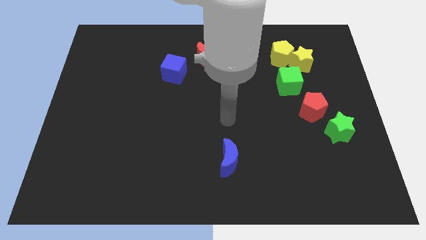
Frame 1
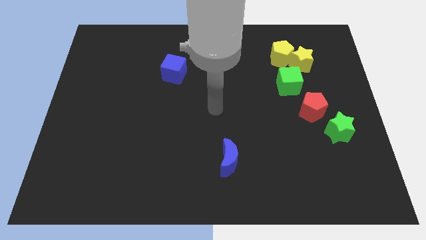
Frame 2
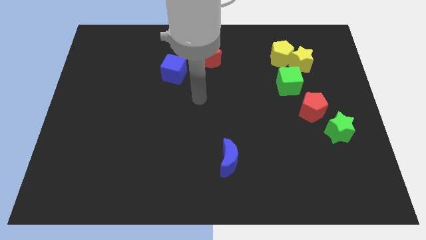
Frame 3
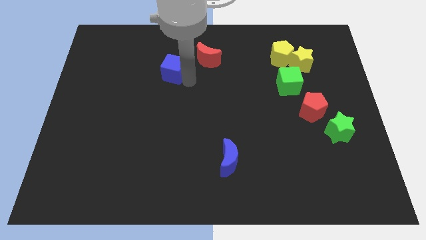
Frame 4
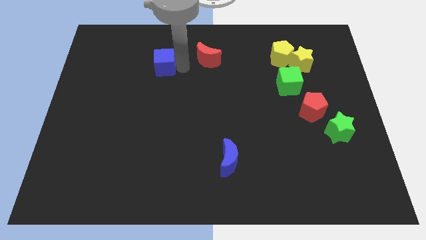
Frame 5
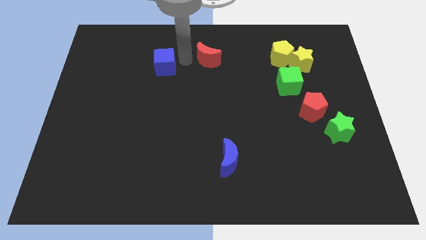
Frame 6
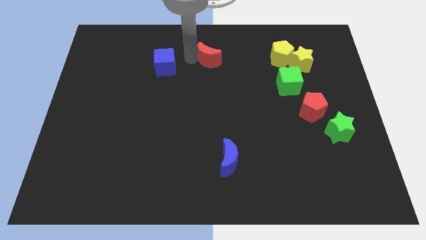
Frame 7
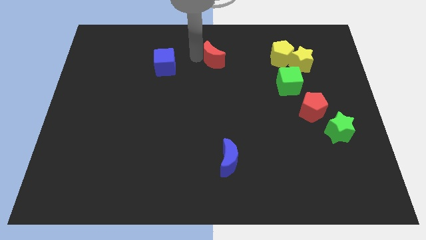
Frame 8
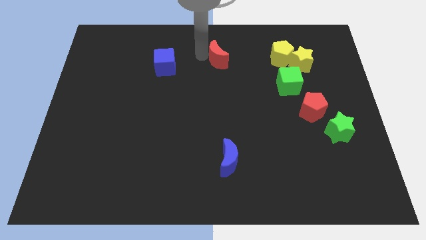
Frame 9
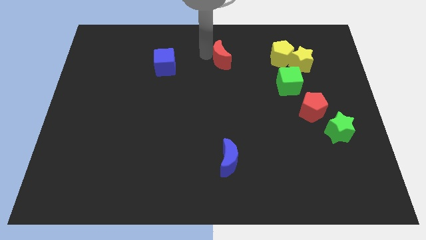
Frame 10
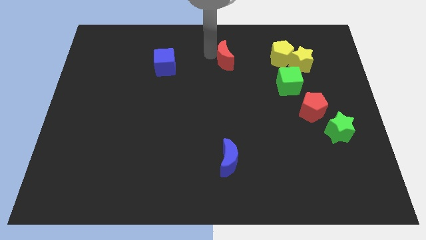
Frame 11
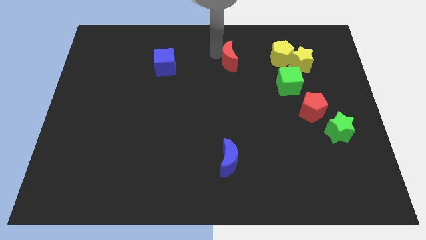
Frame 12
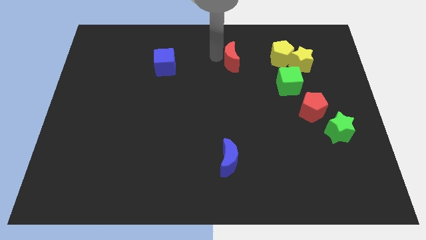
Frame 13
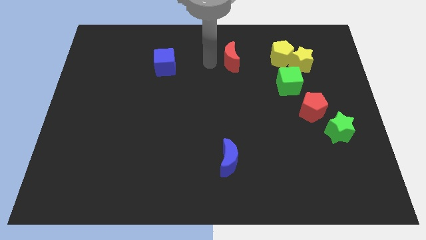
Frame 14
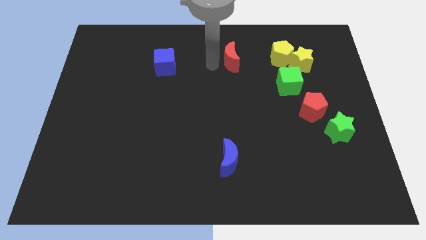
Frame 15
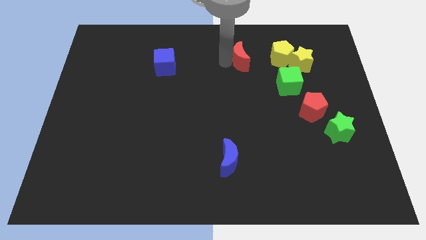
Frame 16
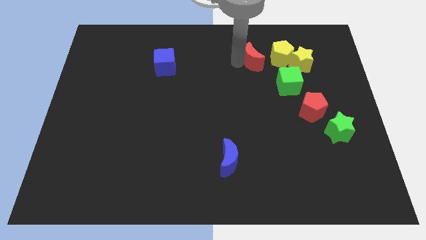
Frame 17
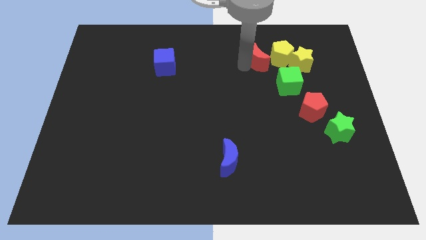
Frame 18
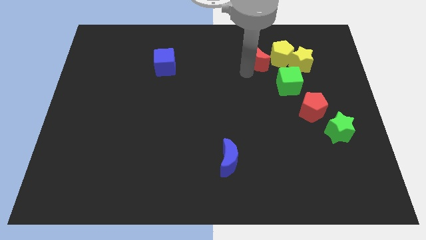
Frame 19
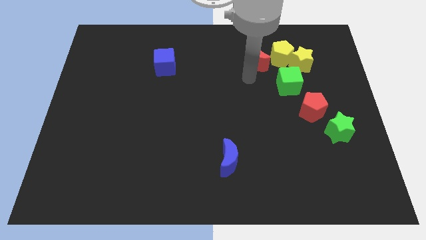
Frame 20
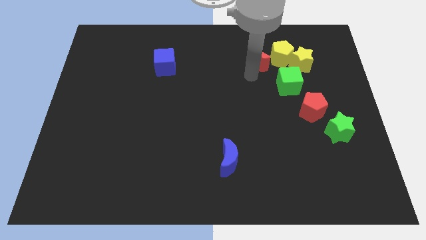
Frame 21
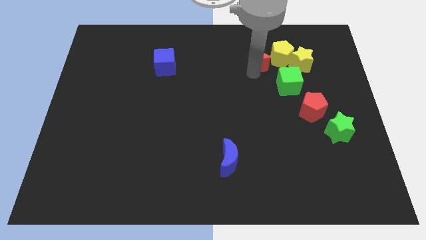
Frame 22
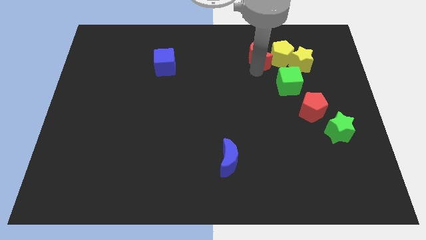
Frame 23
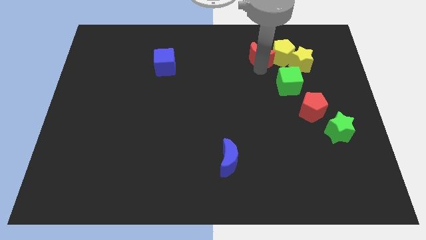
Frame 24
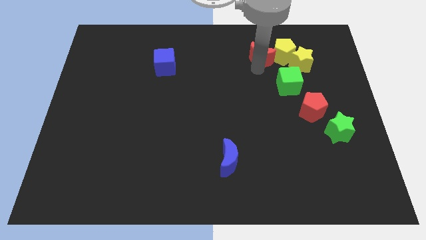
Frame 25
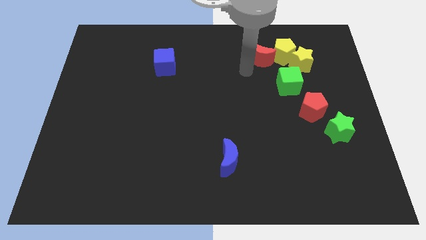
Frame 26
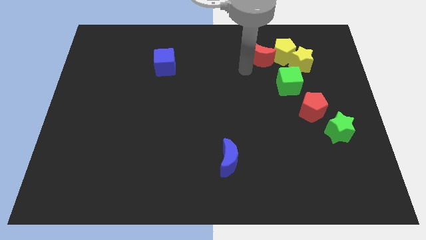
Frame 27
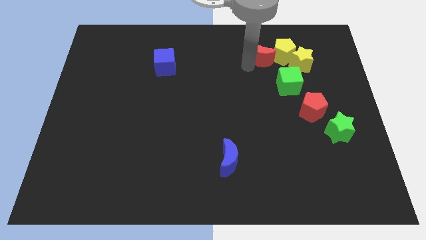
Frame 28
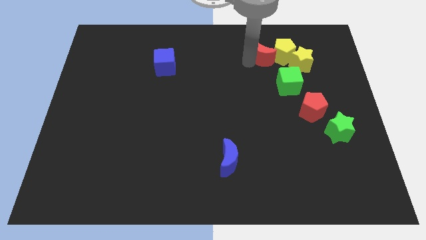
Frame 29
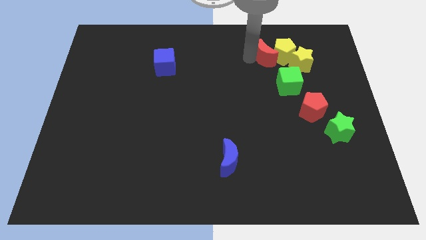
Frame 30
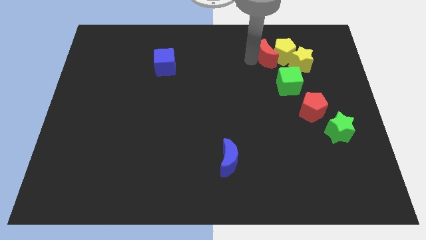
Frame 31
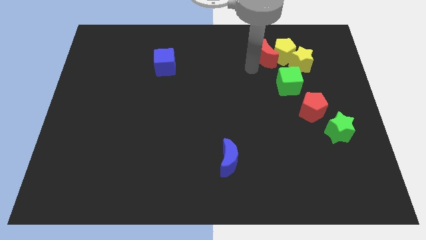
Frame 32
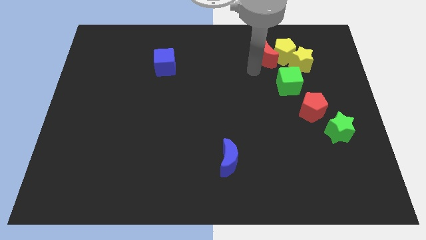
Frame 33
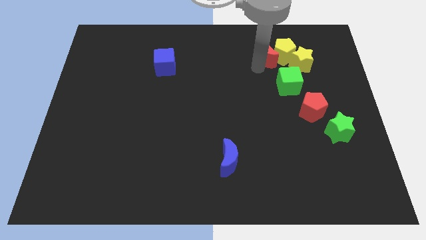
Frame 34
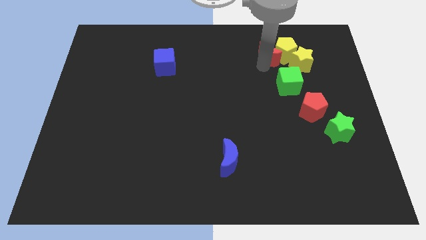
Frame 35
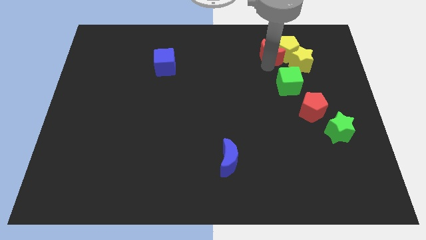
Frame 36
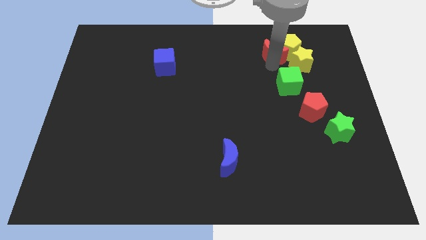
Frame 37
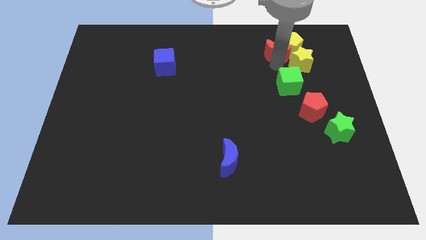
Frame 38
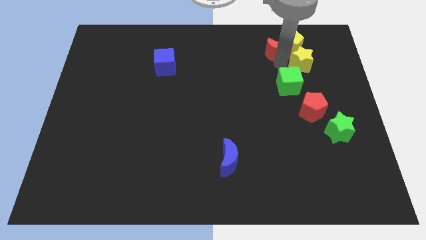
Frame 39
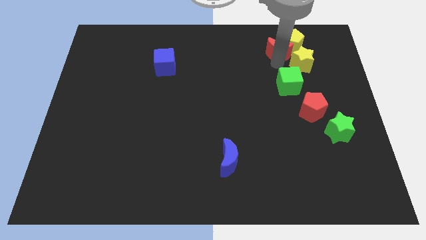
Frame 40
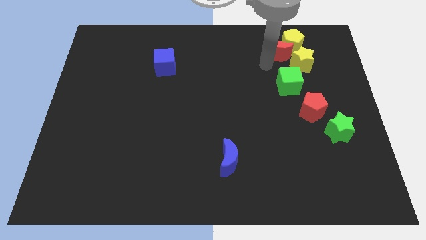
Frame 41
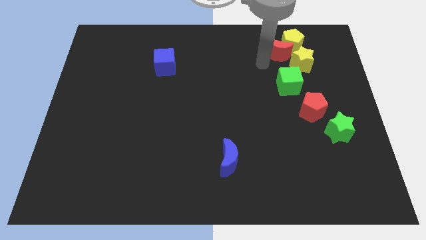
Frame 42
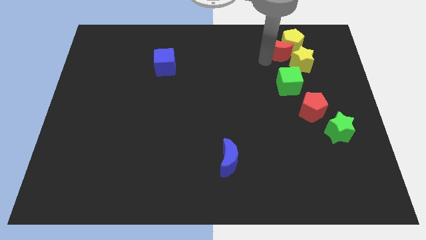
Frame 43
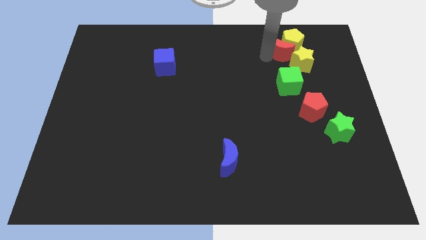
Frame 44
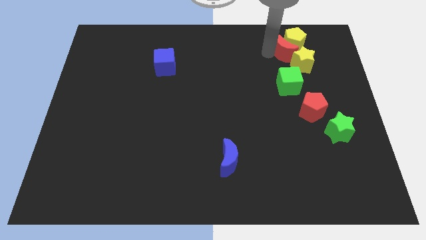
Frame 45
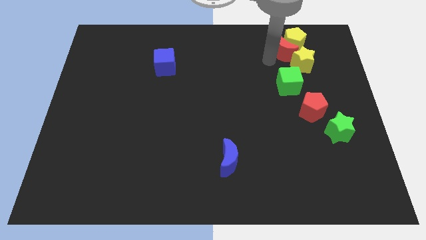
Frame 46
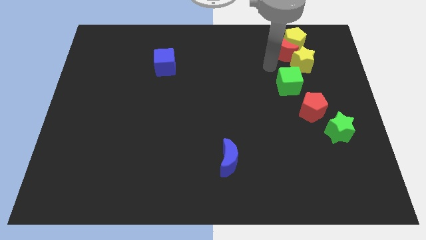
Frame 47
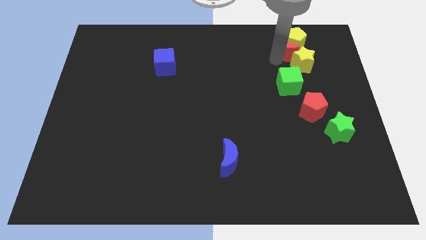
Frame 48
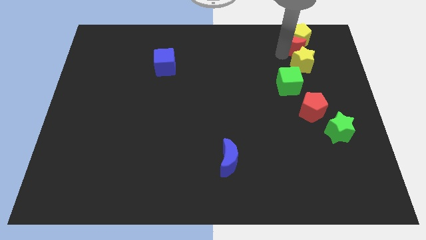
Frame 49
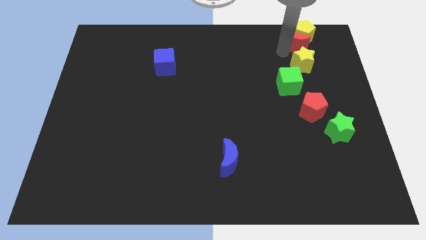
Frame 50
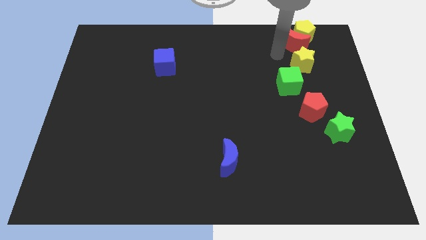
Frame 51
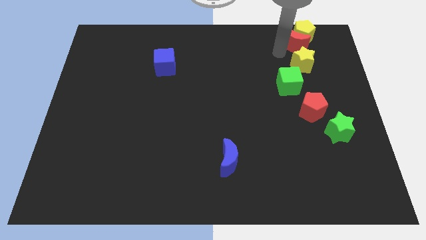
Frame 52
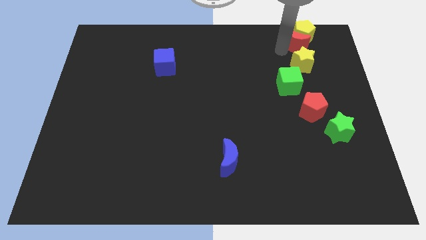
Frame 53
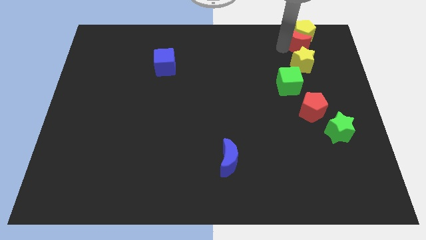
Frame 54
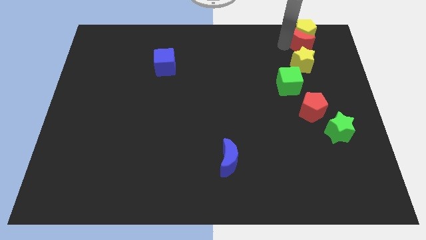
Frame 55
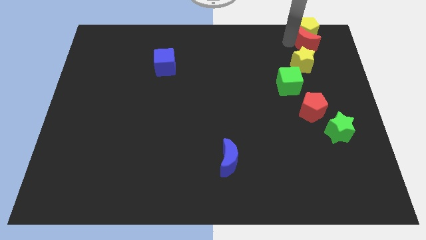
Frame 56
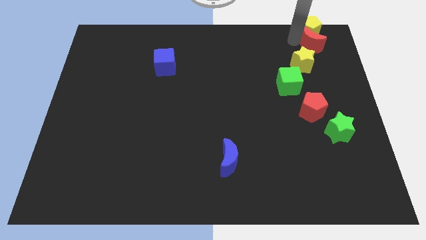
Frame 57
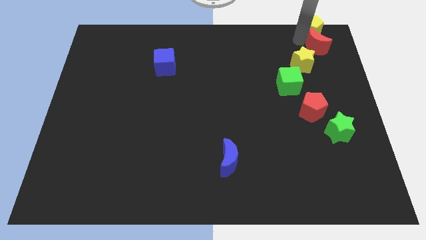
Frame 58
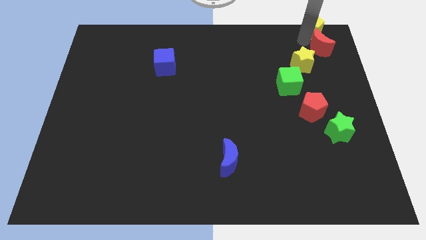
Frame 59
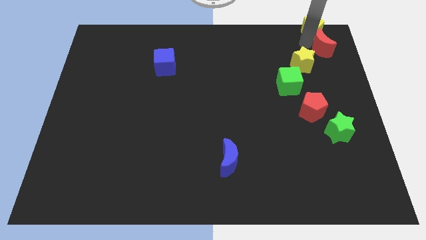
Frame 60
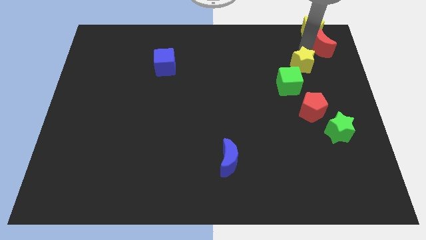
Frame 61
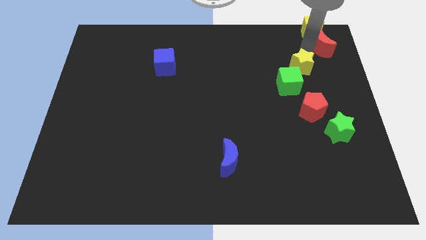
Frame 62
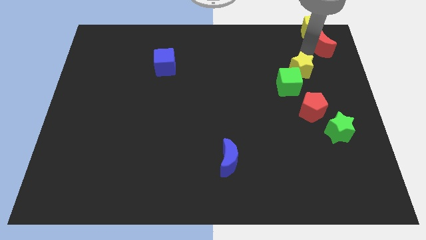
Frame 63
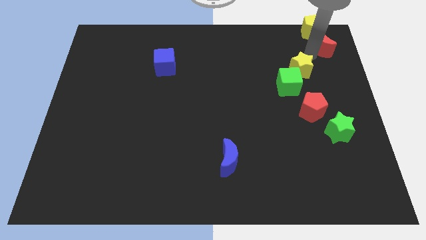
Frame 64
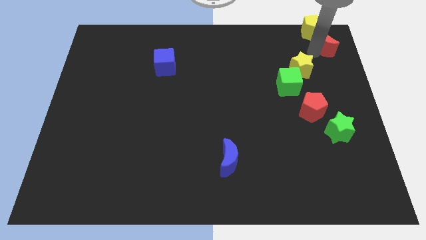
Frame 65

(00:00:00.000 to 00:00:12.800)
put the red moon to the top right
